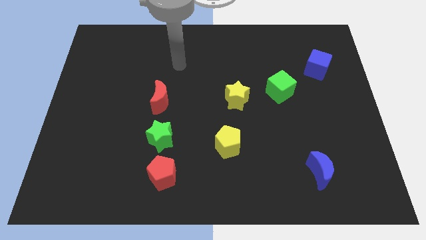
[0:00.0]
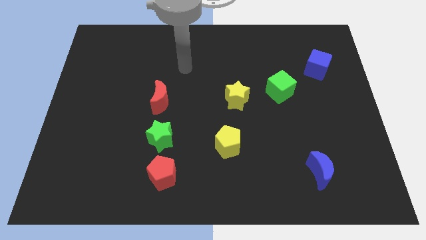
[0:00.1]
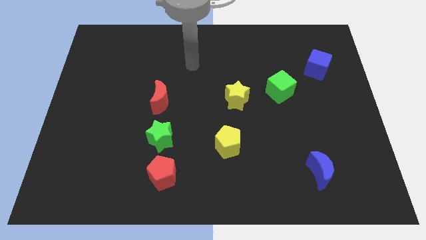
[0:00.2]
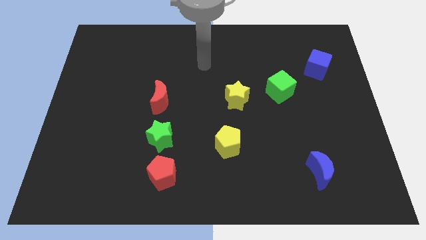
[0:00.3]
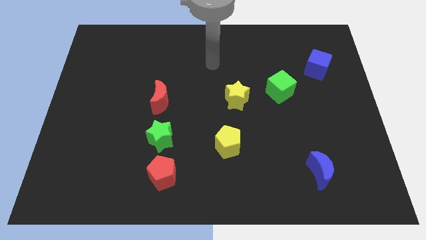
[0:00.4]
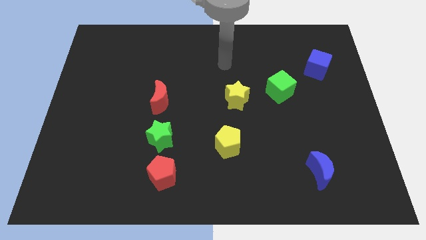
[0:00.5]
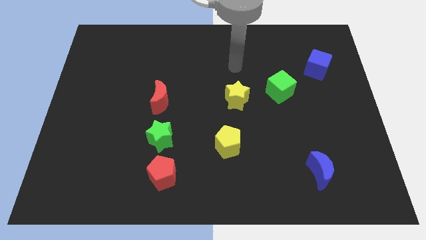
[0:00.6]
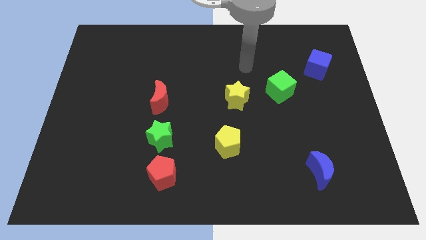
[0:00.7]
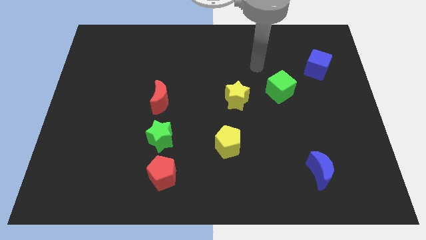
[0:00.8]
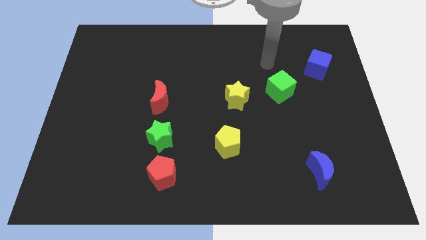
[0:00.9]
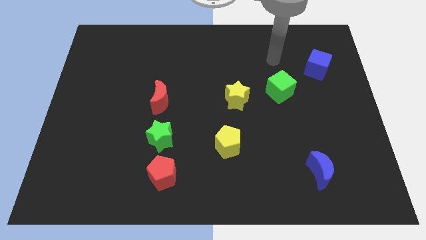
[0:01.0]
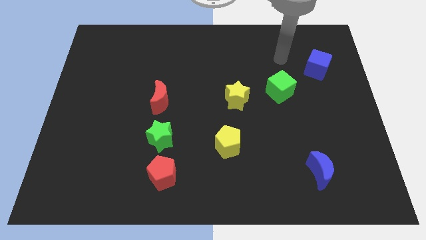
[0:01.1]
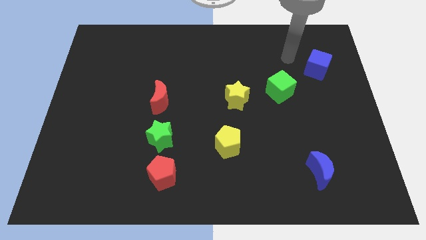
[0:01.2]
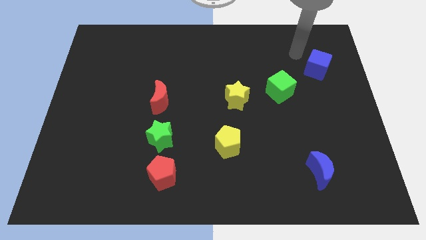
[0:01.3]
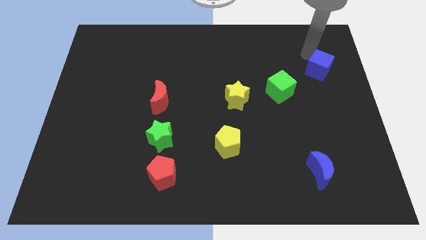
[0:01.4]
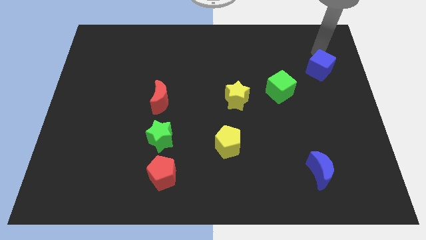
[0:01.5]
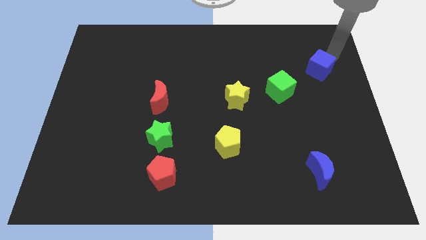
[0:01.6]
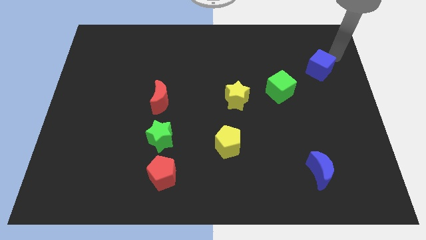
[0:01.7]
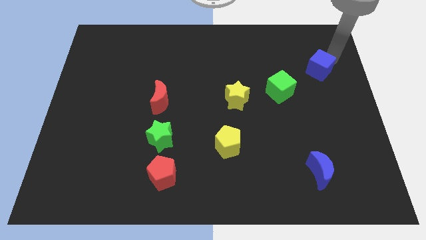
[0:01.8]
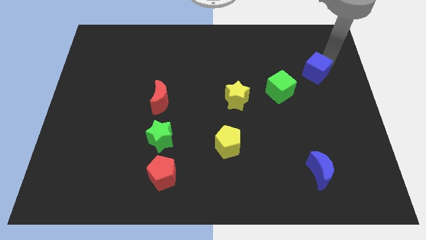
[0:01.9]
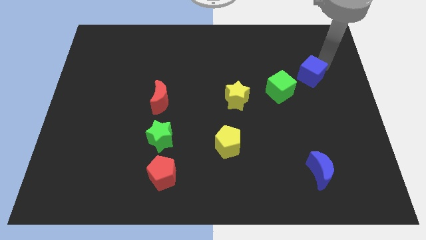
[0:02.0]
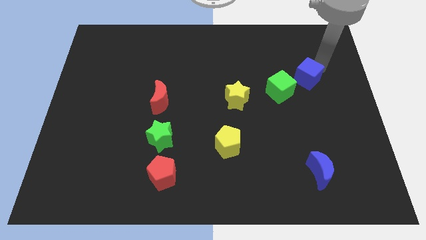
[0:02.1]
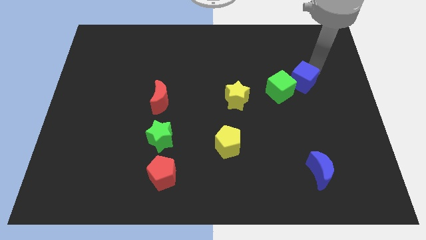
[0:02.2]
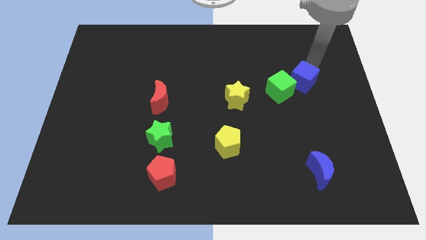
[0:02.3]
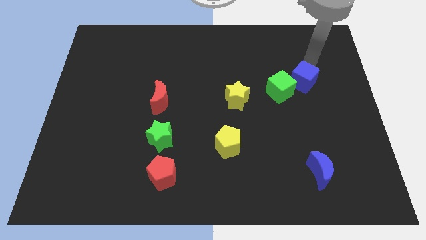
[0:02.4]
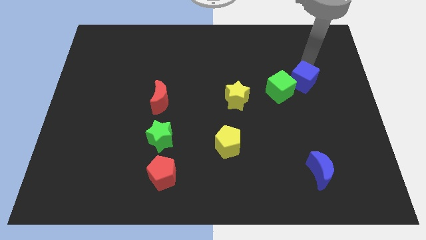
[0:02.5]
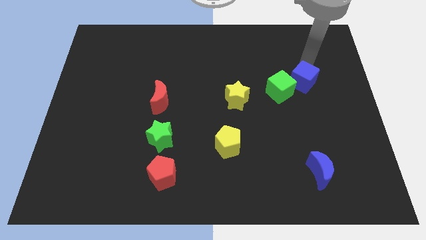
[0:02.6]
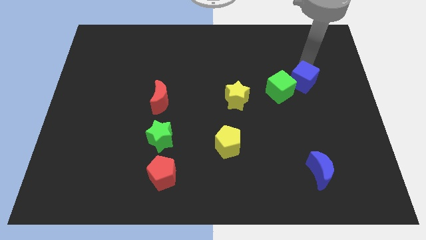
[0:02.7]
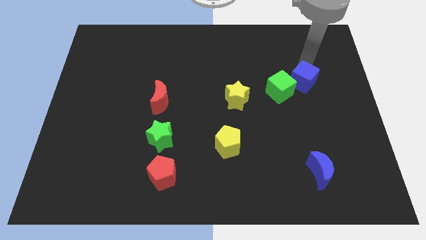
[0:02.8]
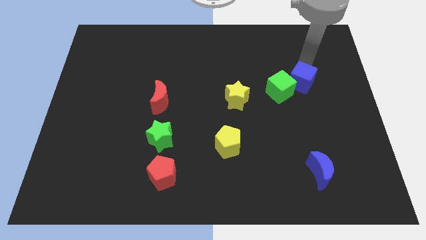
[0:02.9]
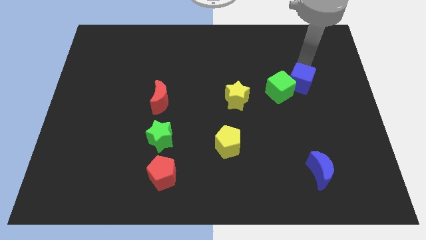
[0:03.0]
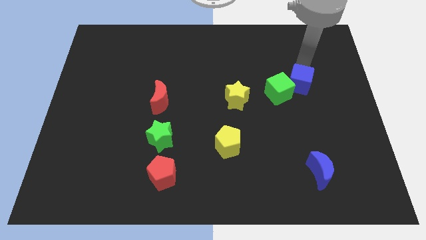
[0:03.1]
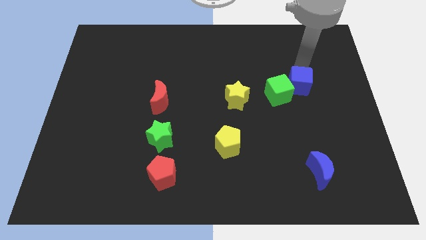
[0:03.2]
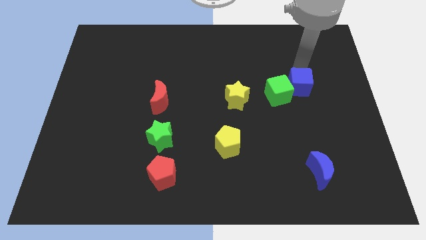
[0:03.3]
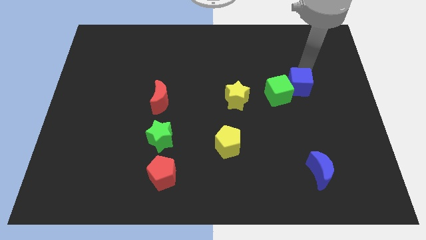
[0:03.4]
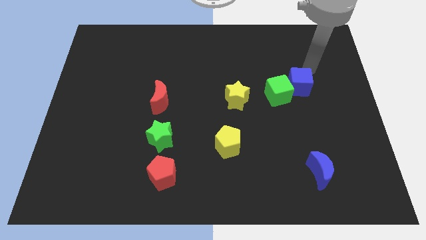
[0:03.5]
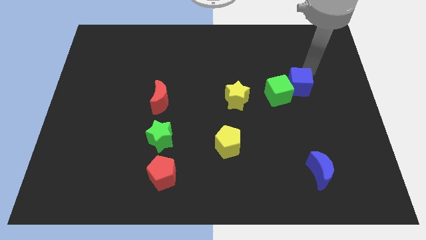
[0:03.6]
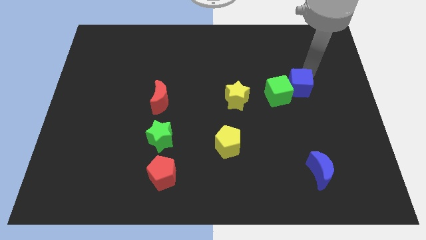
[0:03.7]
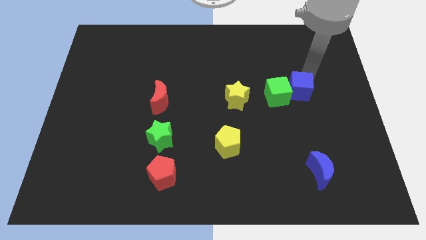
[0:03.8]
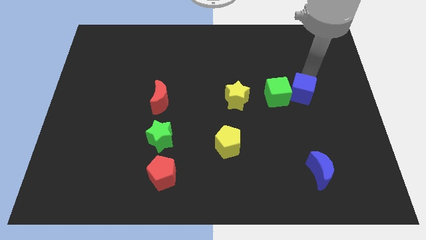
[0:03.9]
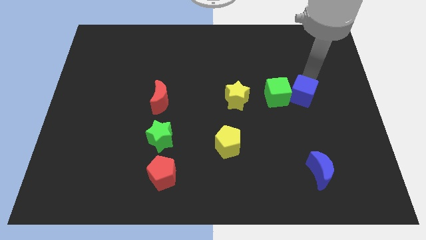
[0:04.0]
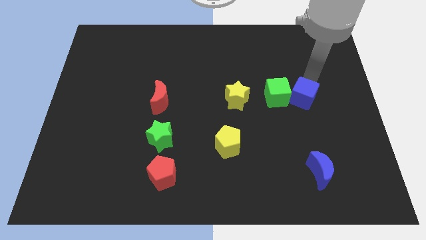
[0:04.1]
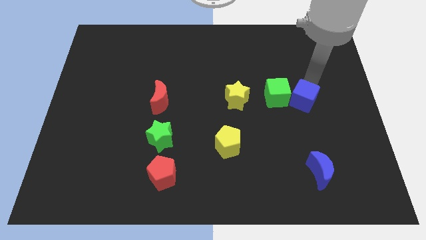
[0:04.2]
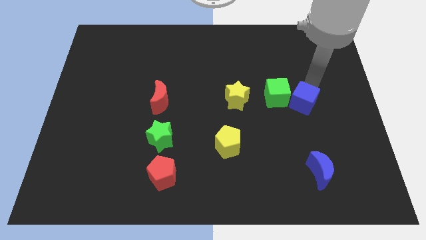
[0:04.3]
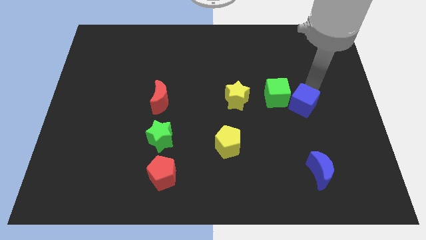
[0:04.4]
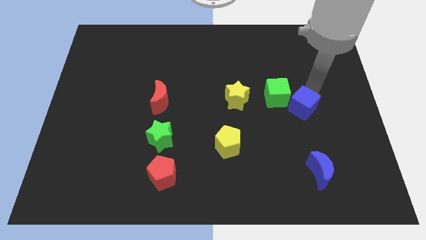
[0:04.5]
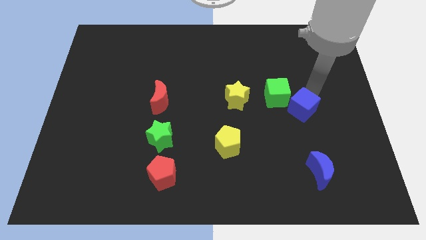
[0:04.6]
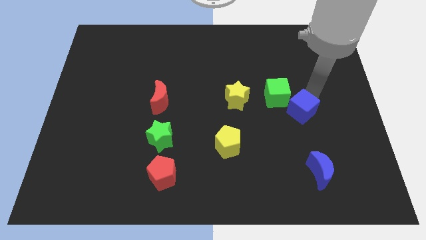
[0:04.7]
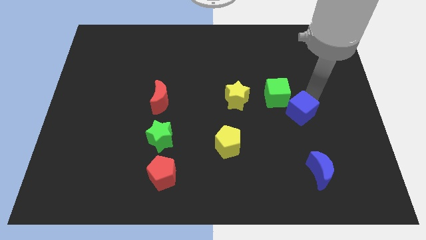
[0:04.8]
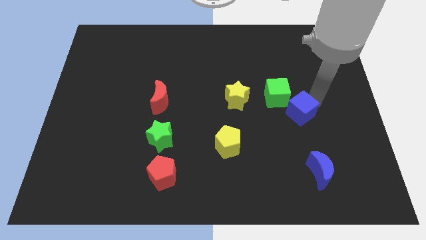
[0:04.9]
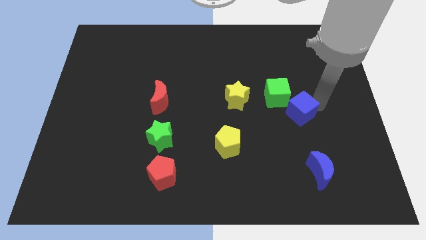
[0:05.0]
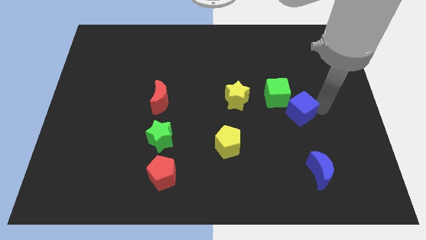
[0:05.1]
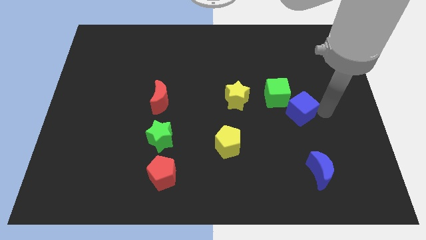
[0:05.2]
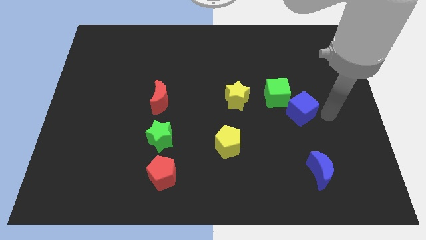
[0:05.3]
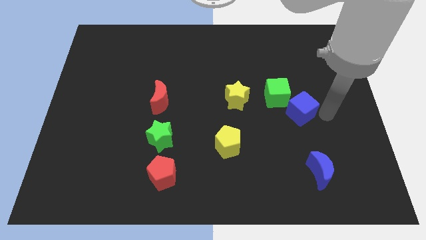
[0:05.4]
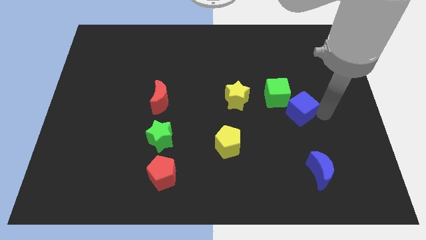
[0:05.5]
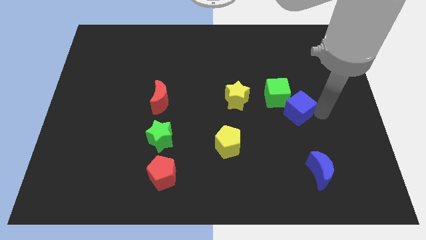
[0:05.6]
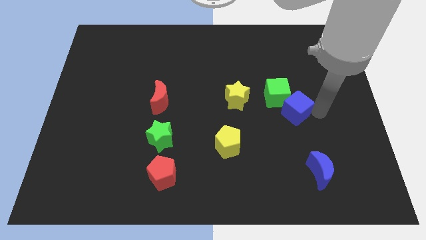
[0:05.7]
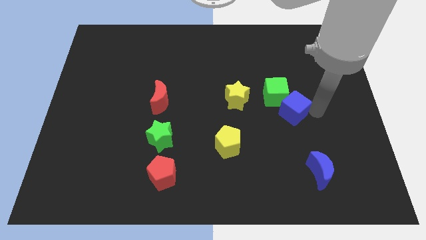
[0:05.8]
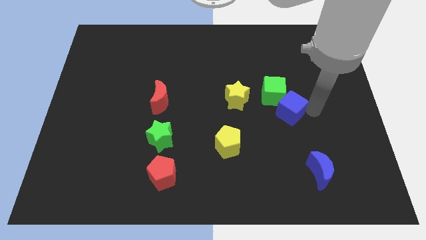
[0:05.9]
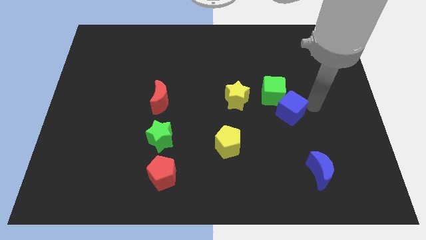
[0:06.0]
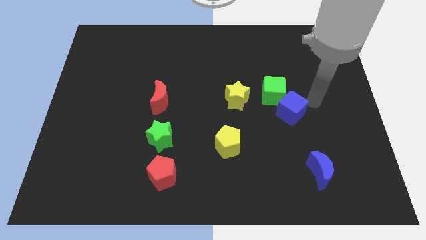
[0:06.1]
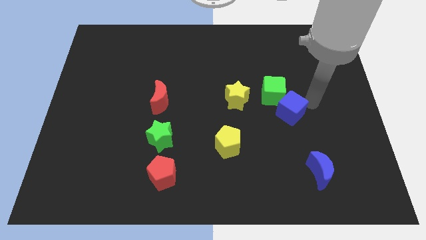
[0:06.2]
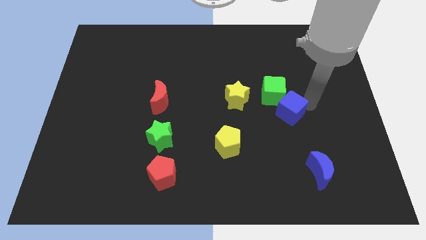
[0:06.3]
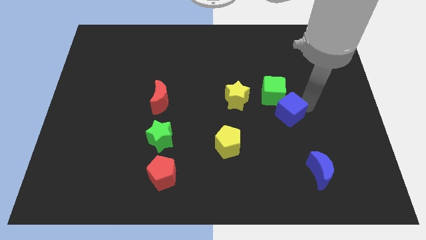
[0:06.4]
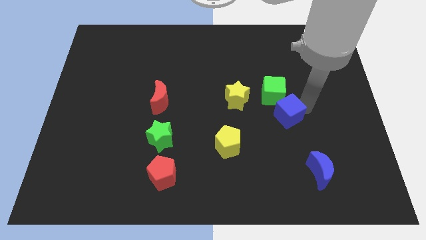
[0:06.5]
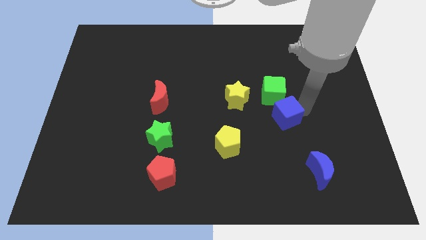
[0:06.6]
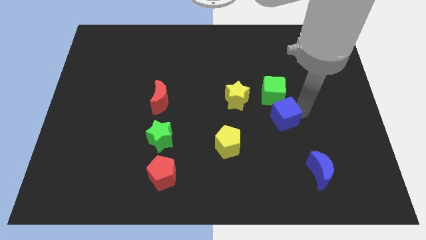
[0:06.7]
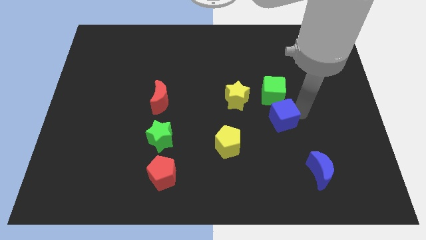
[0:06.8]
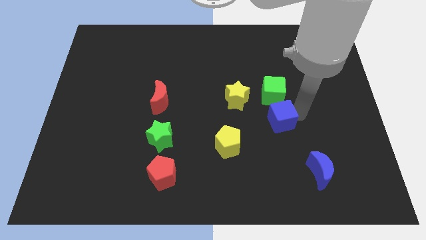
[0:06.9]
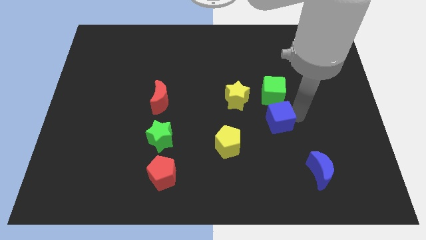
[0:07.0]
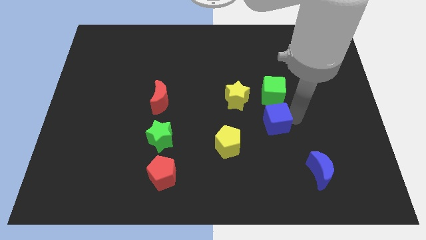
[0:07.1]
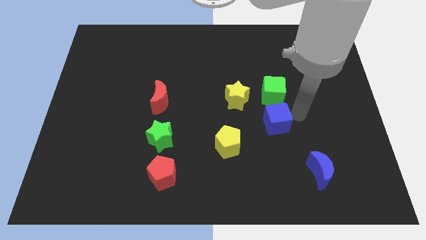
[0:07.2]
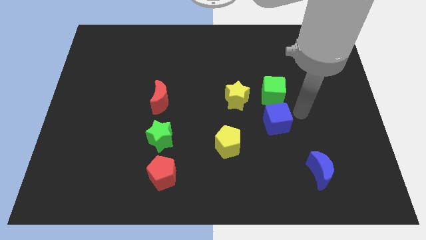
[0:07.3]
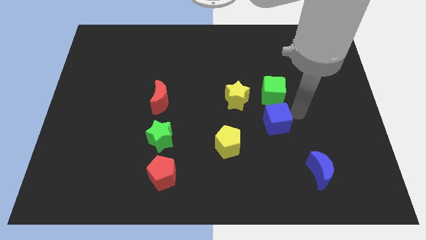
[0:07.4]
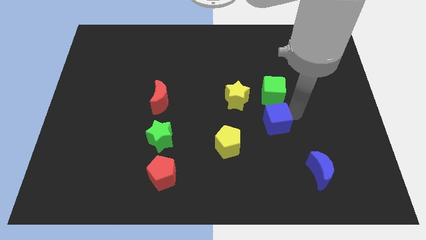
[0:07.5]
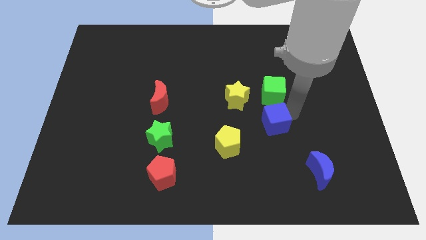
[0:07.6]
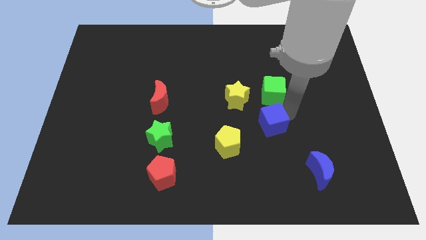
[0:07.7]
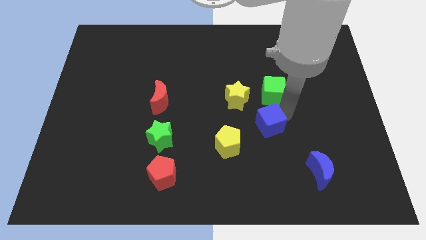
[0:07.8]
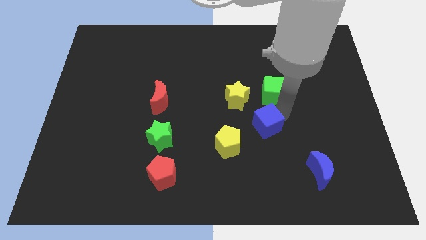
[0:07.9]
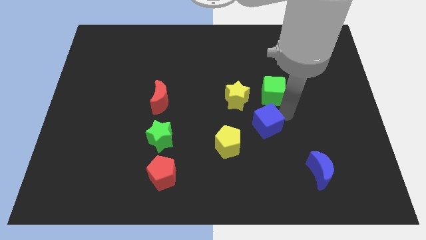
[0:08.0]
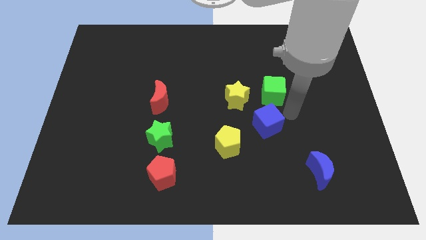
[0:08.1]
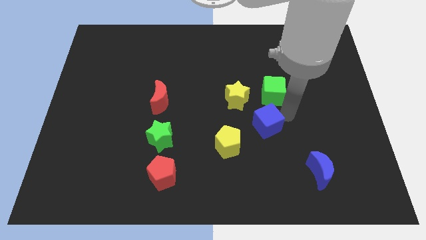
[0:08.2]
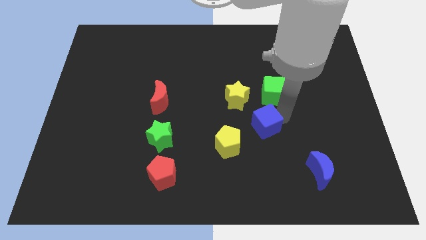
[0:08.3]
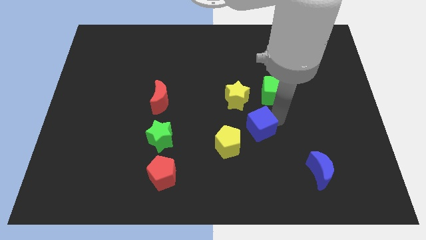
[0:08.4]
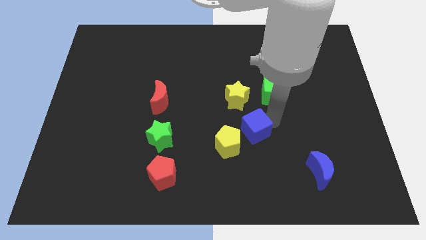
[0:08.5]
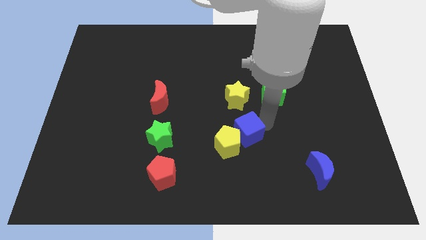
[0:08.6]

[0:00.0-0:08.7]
push the blue cube next to the yellow pentagon
